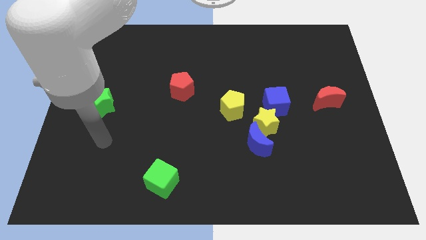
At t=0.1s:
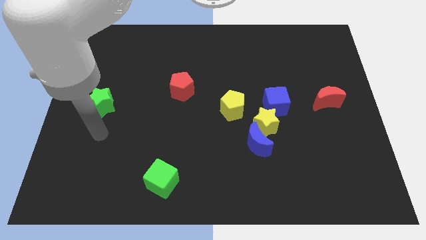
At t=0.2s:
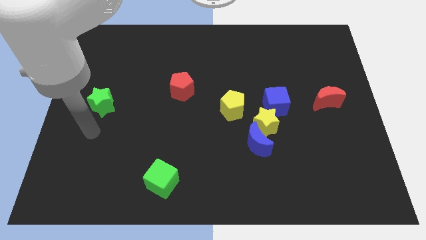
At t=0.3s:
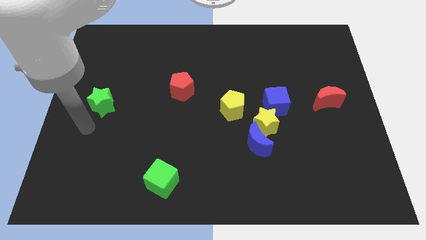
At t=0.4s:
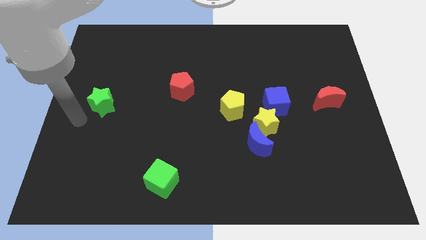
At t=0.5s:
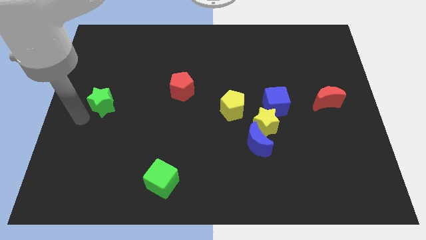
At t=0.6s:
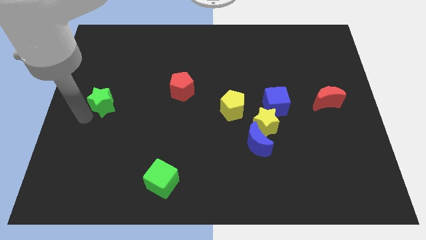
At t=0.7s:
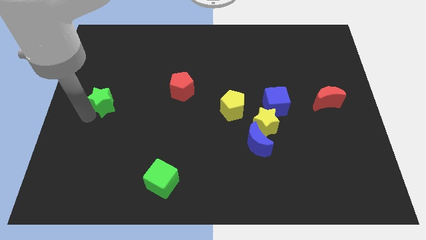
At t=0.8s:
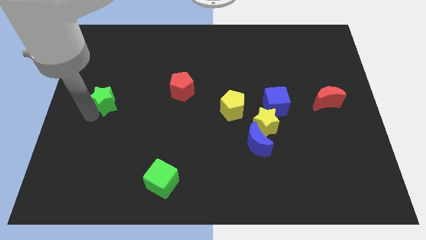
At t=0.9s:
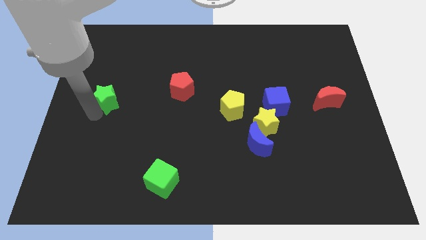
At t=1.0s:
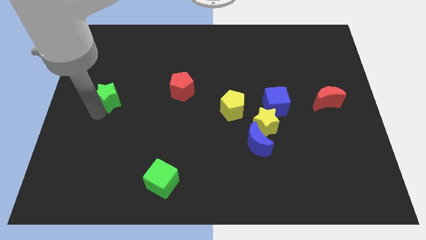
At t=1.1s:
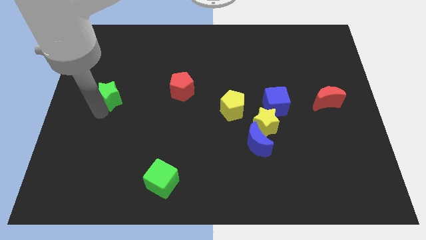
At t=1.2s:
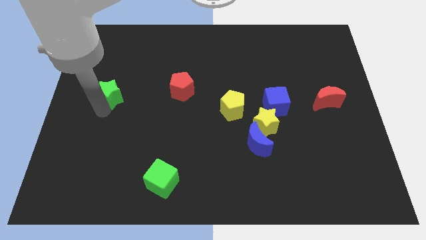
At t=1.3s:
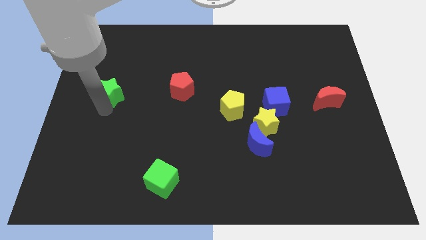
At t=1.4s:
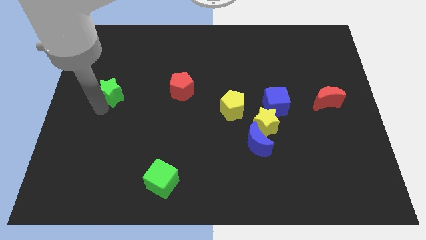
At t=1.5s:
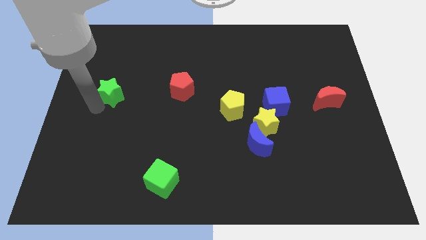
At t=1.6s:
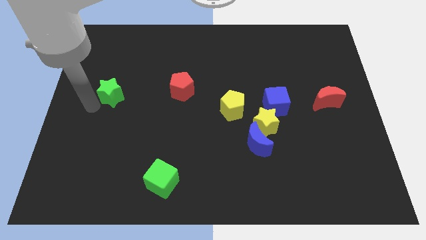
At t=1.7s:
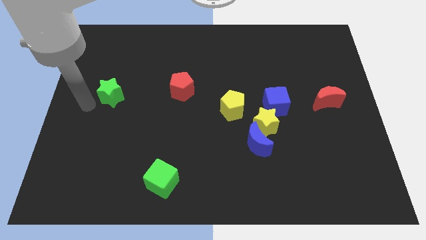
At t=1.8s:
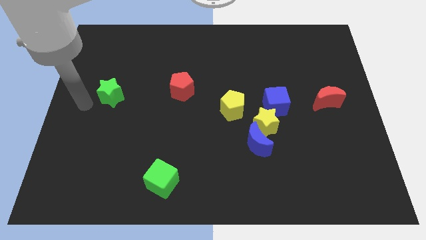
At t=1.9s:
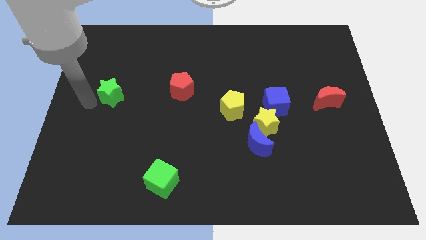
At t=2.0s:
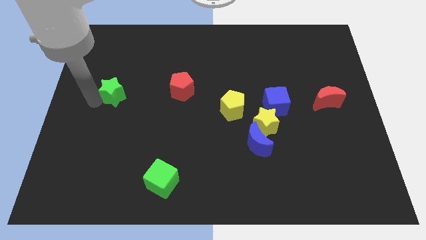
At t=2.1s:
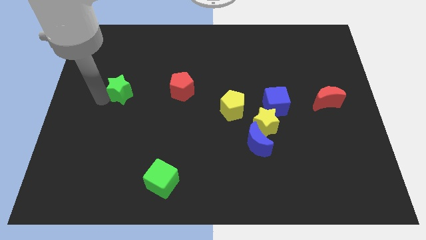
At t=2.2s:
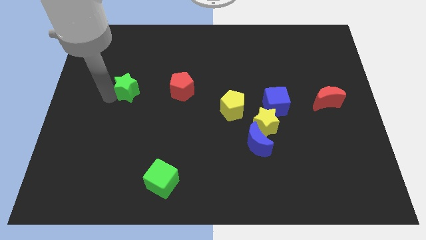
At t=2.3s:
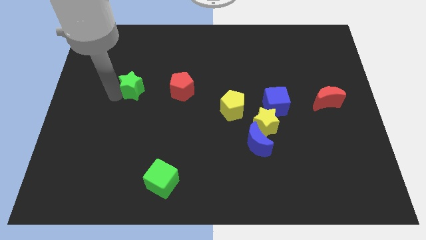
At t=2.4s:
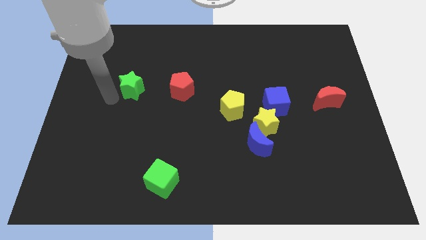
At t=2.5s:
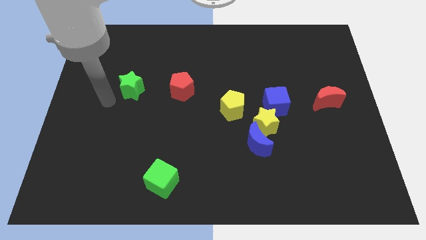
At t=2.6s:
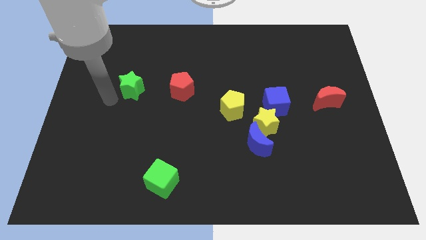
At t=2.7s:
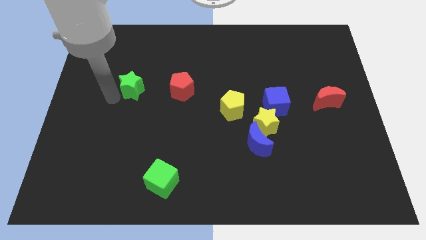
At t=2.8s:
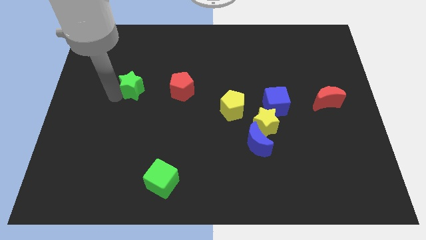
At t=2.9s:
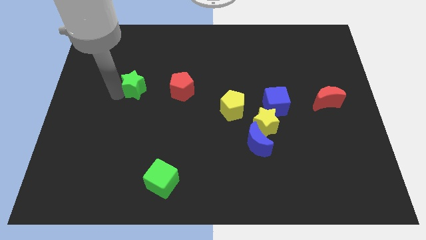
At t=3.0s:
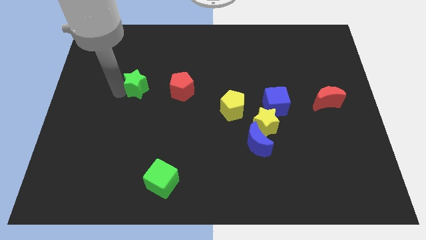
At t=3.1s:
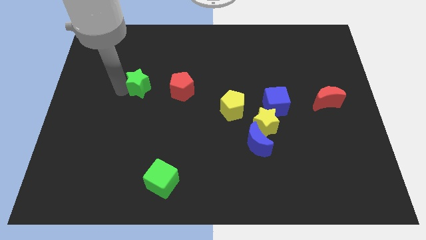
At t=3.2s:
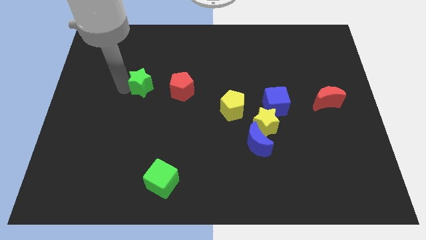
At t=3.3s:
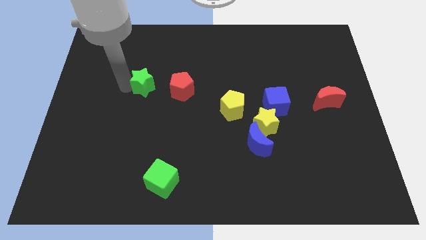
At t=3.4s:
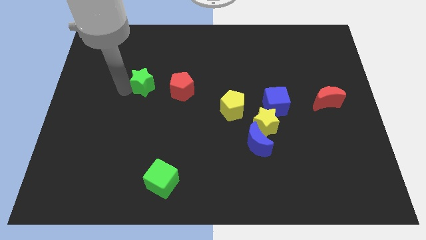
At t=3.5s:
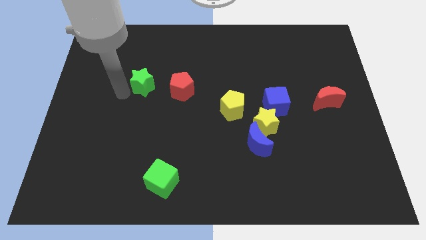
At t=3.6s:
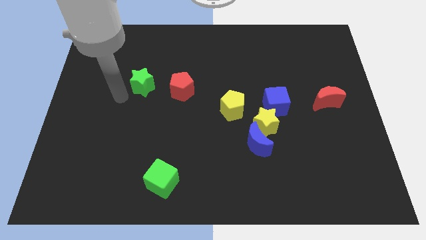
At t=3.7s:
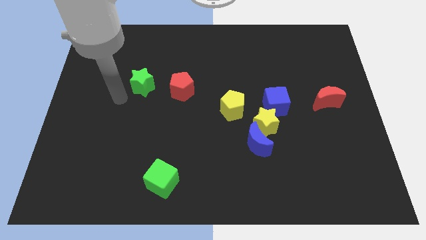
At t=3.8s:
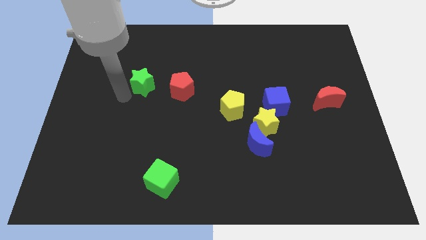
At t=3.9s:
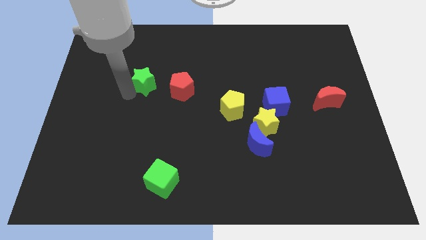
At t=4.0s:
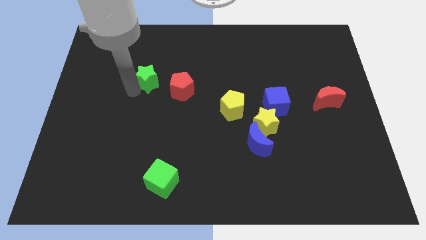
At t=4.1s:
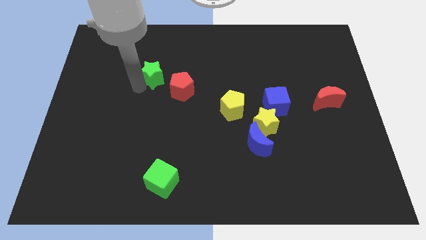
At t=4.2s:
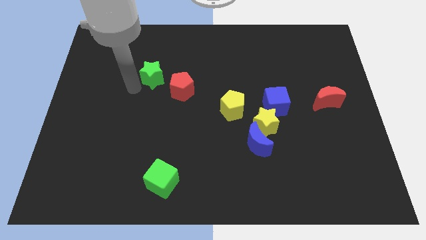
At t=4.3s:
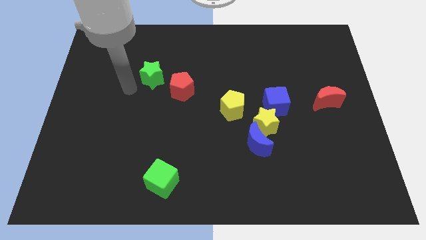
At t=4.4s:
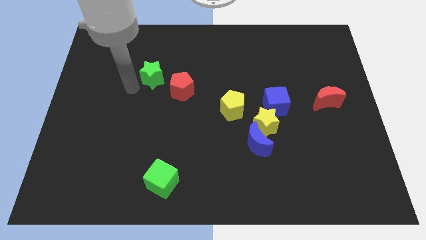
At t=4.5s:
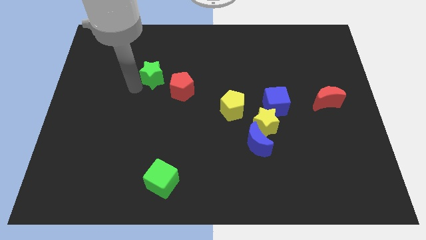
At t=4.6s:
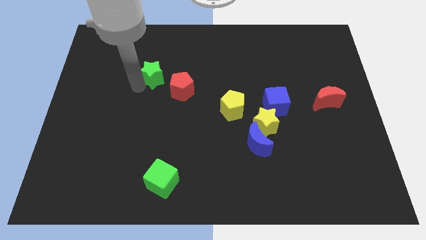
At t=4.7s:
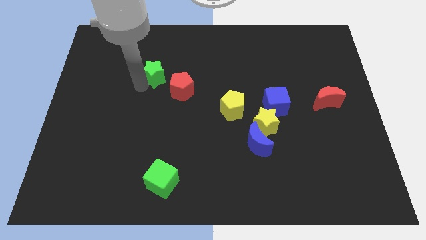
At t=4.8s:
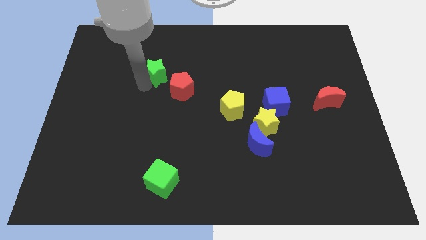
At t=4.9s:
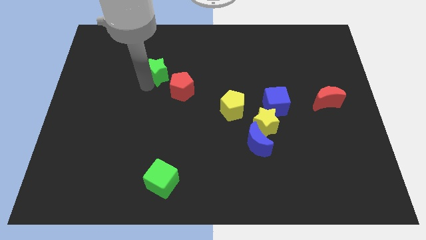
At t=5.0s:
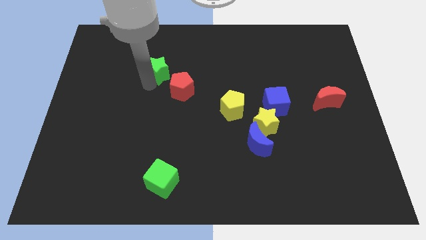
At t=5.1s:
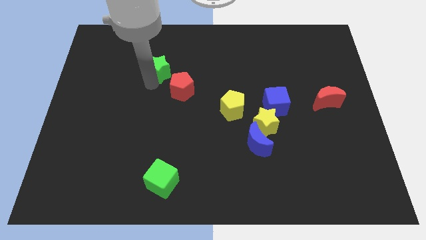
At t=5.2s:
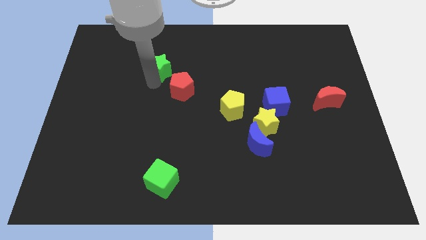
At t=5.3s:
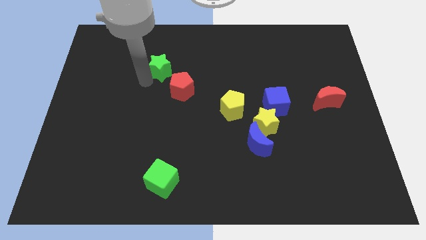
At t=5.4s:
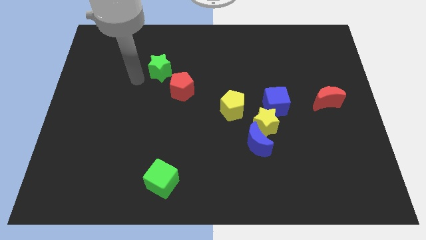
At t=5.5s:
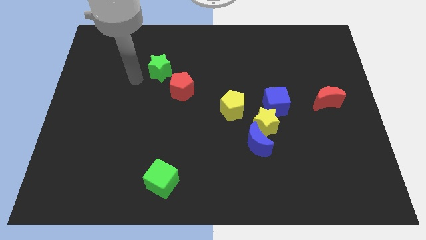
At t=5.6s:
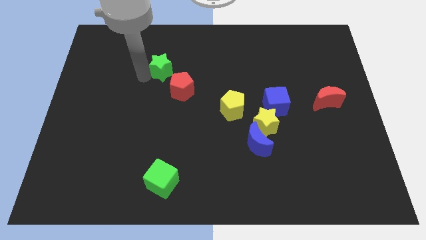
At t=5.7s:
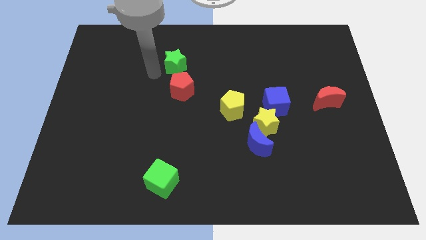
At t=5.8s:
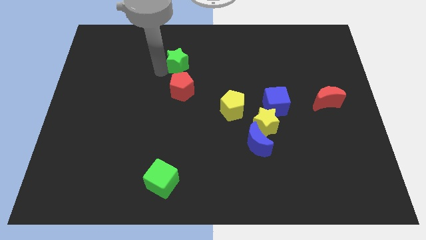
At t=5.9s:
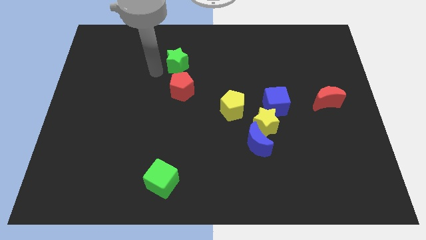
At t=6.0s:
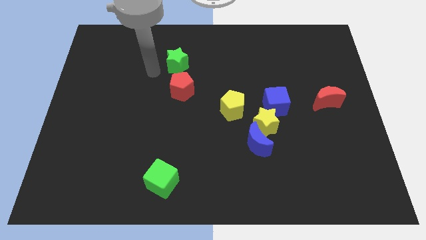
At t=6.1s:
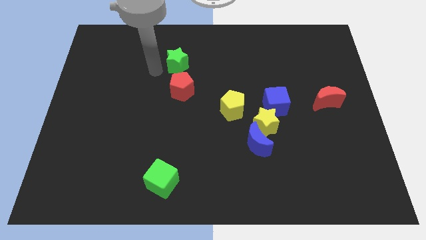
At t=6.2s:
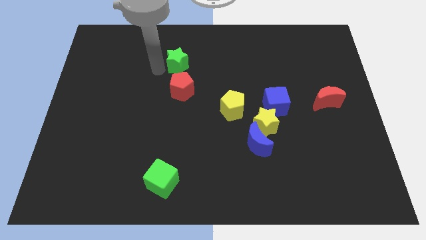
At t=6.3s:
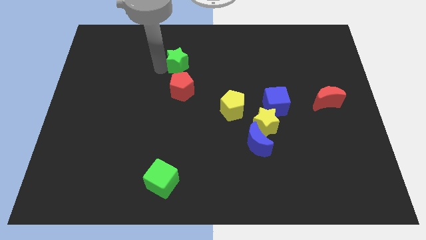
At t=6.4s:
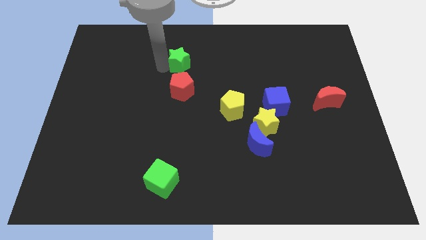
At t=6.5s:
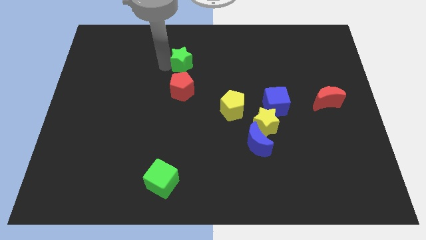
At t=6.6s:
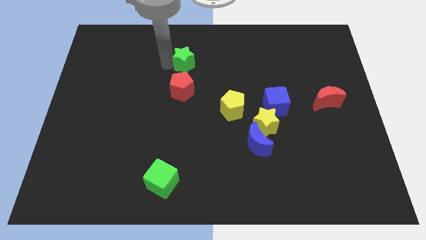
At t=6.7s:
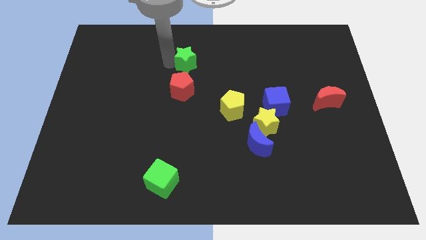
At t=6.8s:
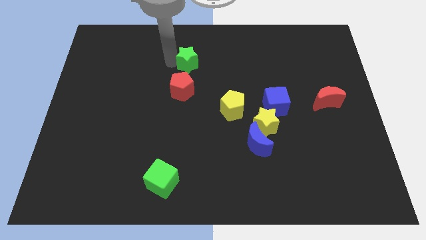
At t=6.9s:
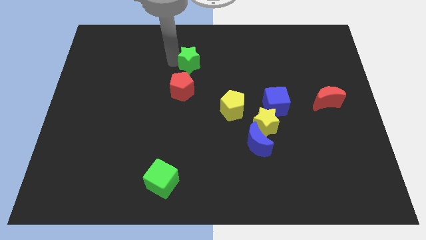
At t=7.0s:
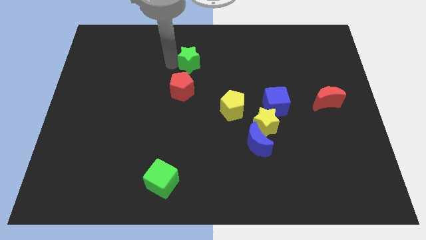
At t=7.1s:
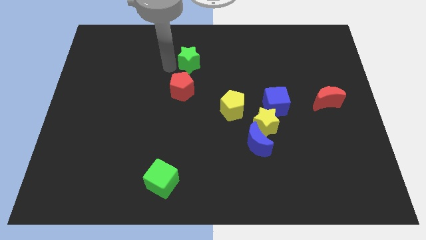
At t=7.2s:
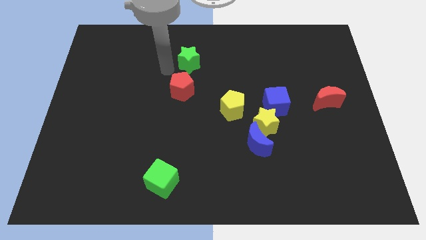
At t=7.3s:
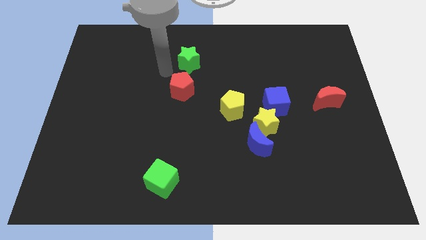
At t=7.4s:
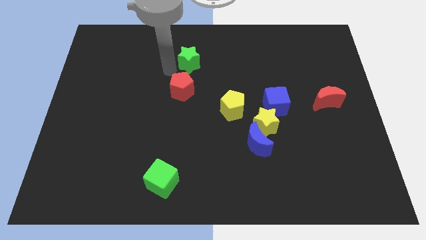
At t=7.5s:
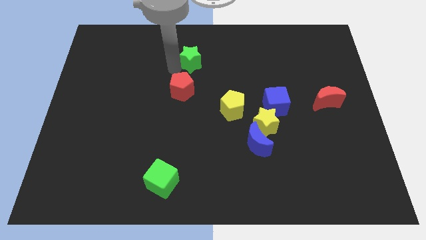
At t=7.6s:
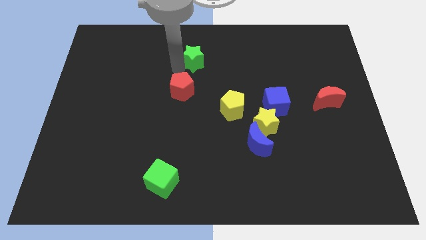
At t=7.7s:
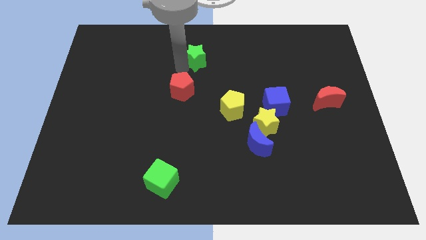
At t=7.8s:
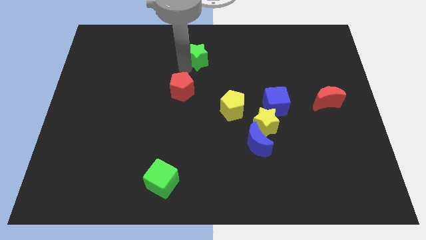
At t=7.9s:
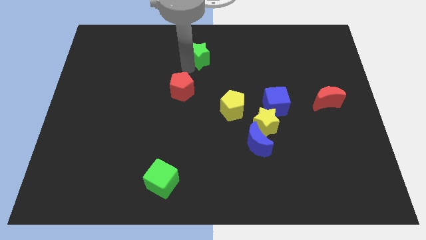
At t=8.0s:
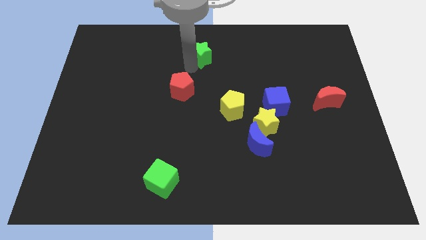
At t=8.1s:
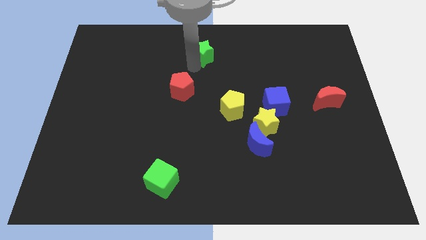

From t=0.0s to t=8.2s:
slide the green star to the top
